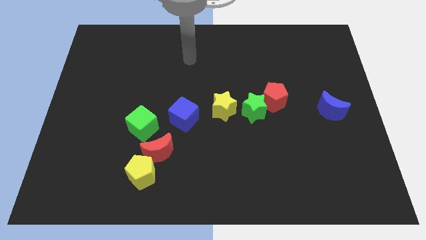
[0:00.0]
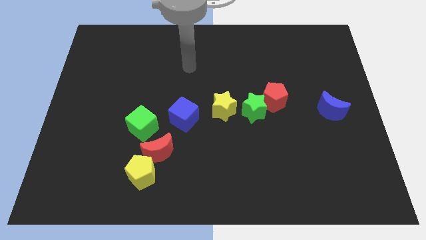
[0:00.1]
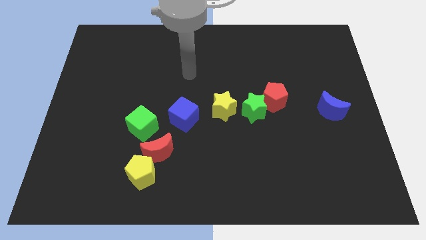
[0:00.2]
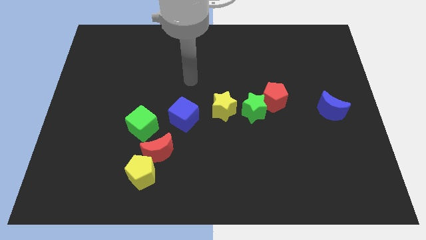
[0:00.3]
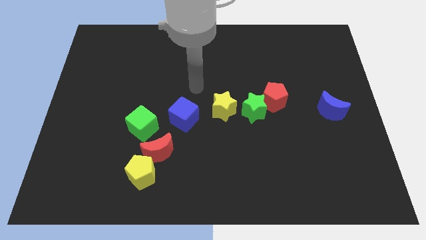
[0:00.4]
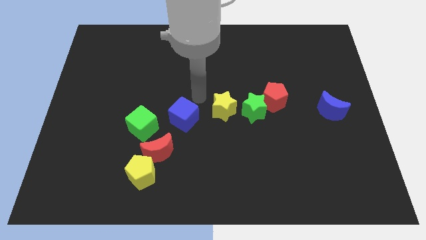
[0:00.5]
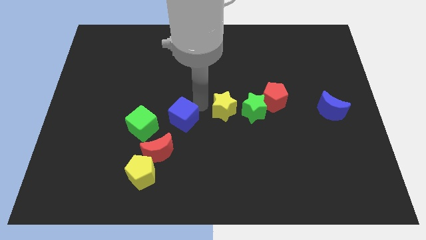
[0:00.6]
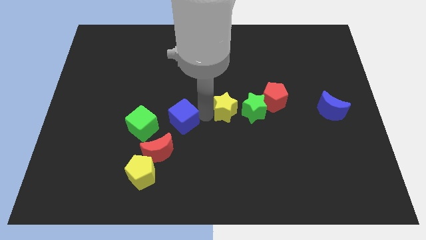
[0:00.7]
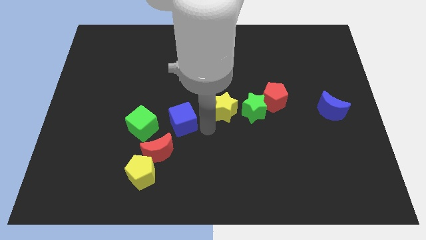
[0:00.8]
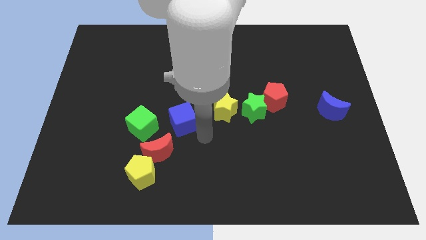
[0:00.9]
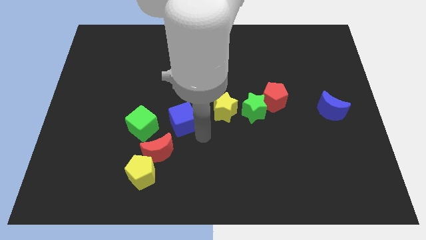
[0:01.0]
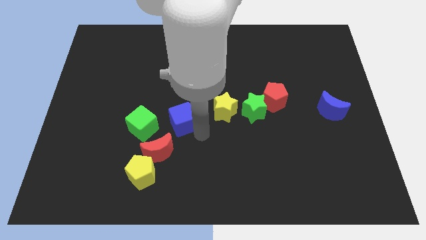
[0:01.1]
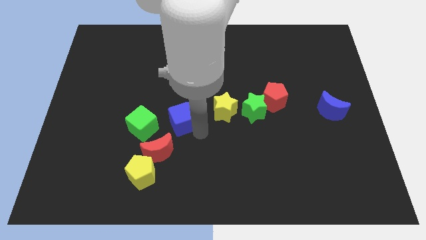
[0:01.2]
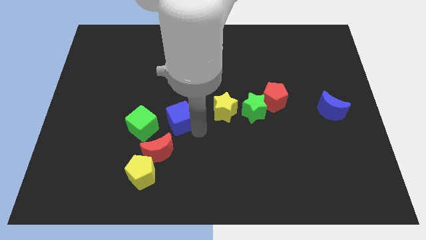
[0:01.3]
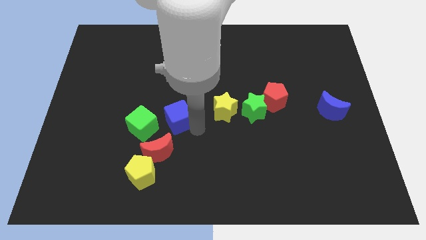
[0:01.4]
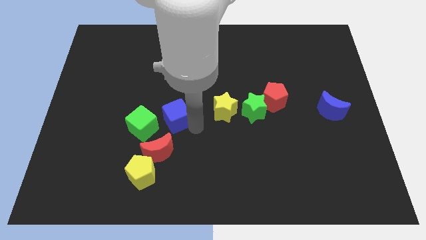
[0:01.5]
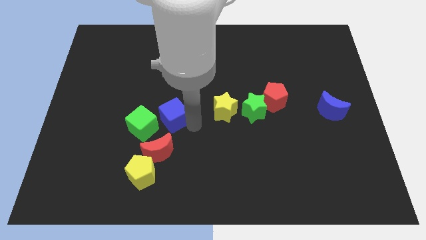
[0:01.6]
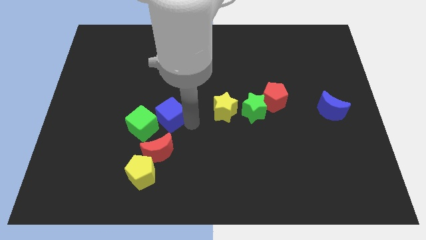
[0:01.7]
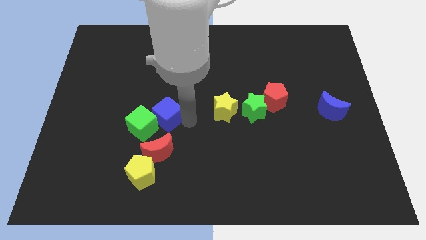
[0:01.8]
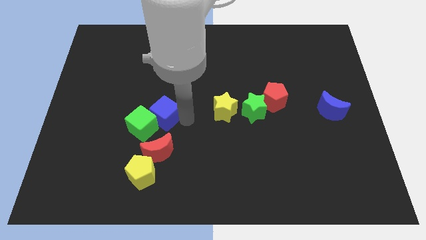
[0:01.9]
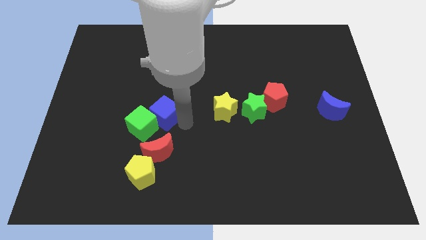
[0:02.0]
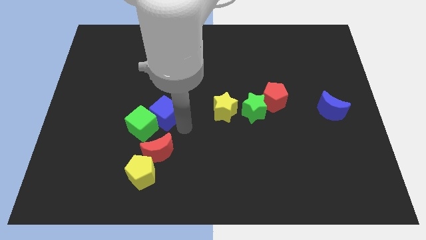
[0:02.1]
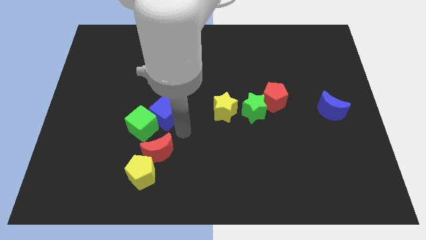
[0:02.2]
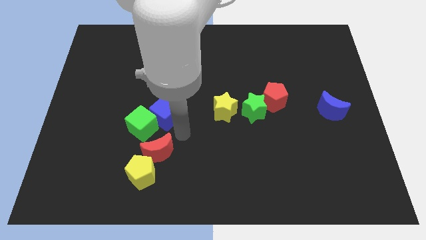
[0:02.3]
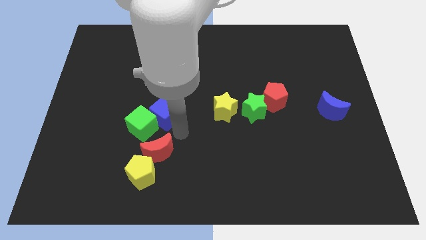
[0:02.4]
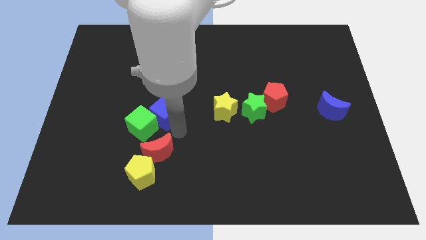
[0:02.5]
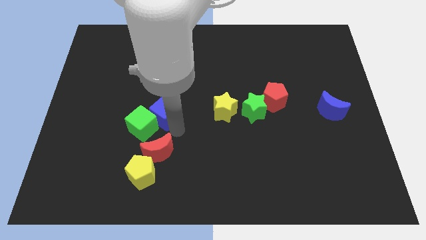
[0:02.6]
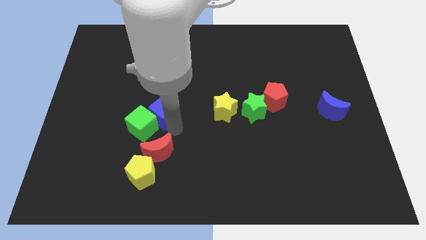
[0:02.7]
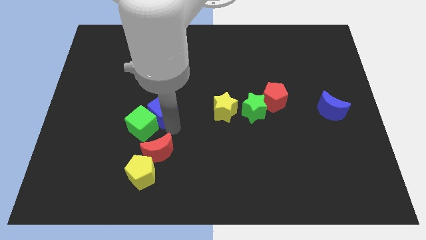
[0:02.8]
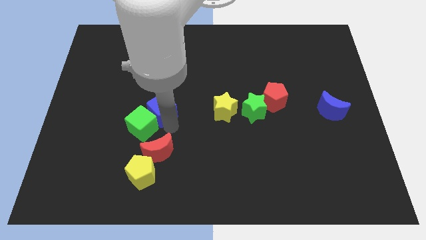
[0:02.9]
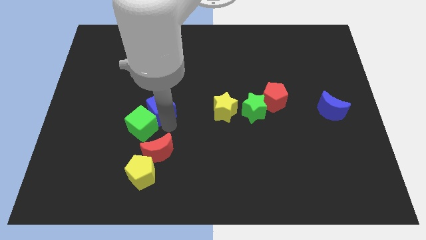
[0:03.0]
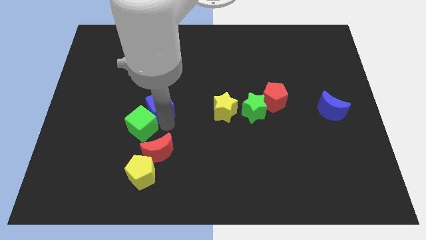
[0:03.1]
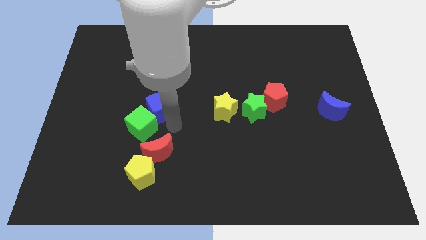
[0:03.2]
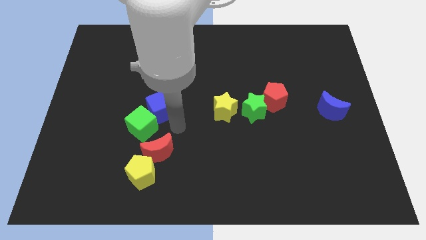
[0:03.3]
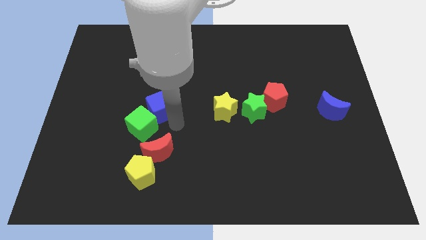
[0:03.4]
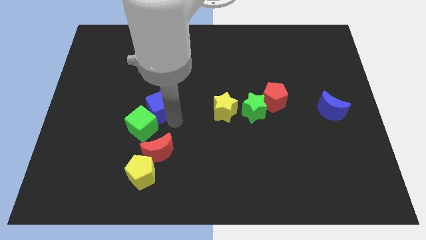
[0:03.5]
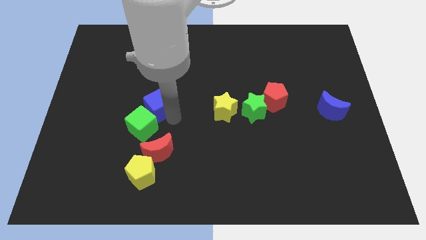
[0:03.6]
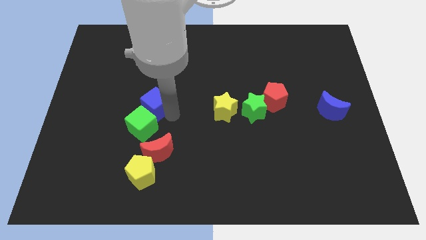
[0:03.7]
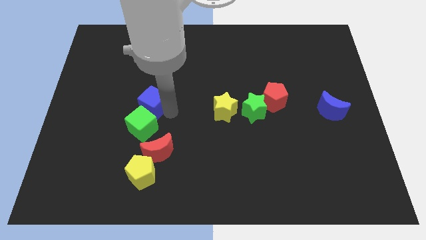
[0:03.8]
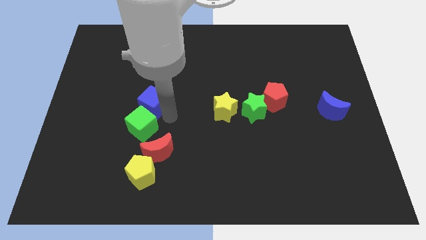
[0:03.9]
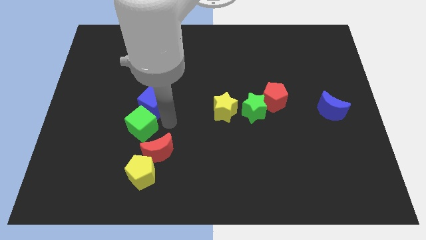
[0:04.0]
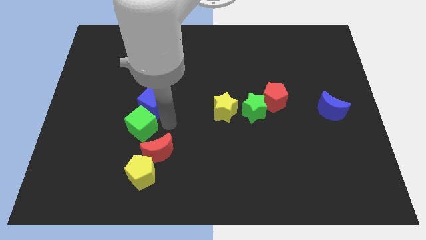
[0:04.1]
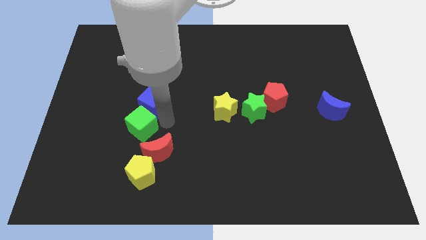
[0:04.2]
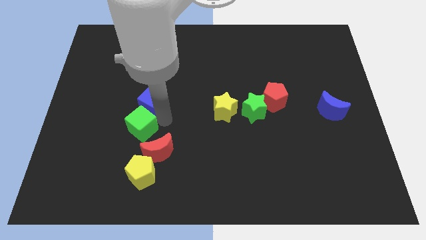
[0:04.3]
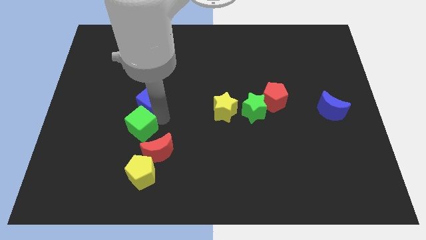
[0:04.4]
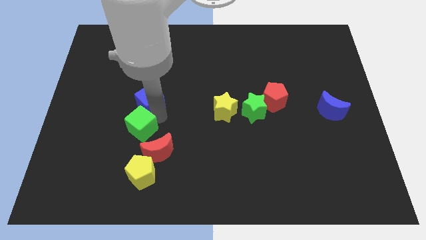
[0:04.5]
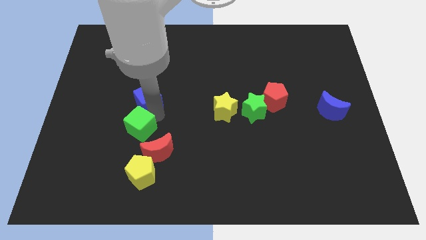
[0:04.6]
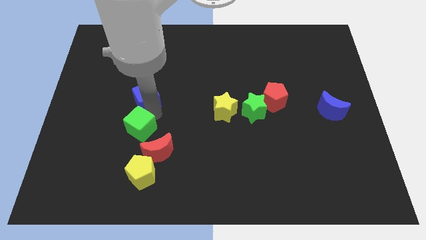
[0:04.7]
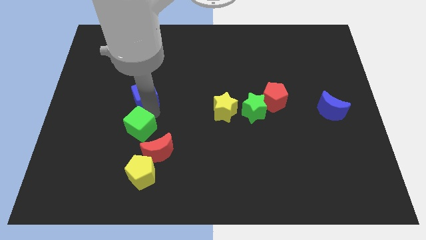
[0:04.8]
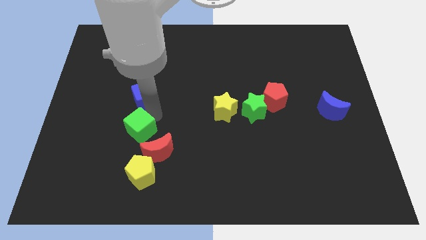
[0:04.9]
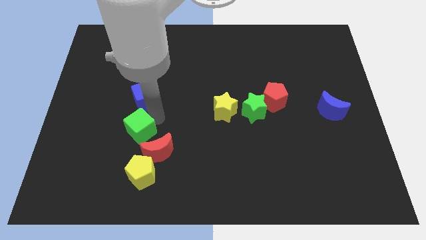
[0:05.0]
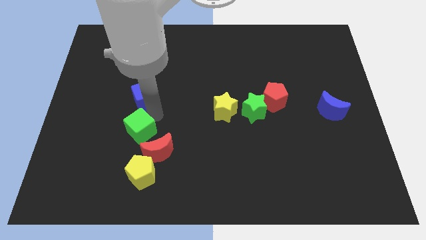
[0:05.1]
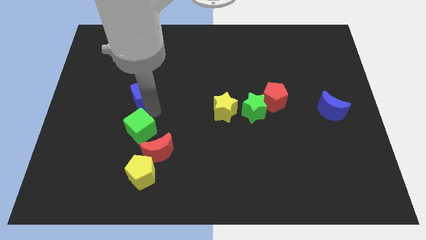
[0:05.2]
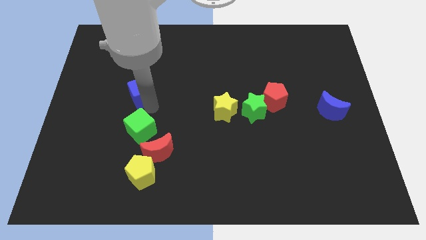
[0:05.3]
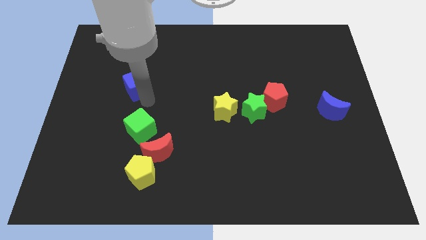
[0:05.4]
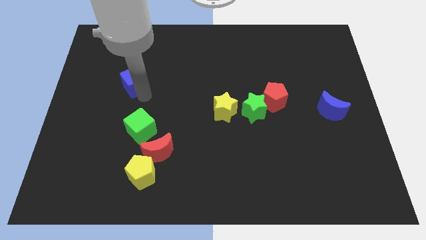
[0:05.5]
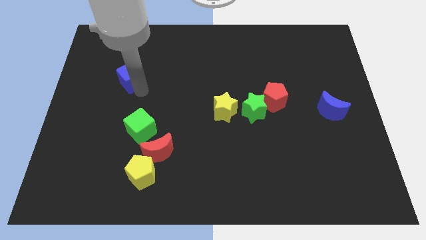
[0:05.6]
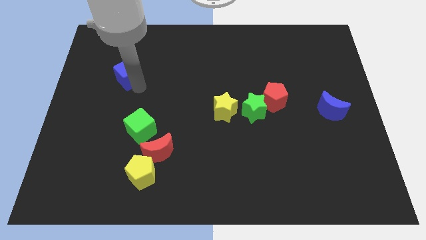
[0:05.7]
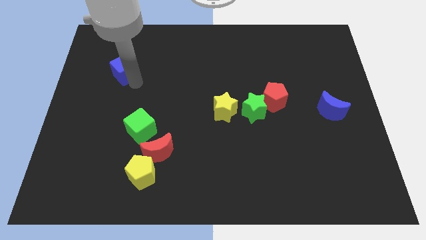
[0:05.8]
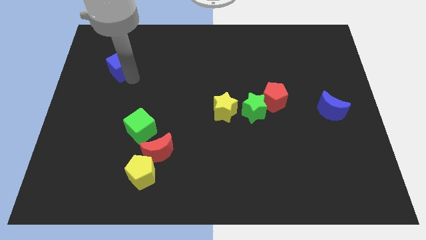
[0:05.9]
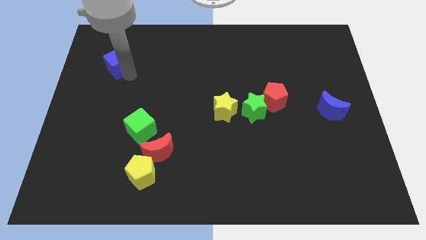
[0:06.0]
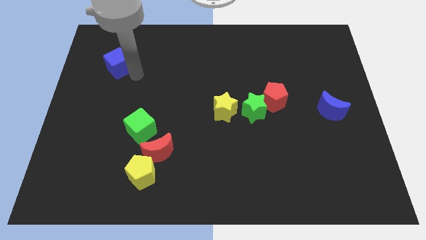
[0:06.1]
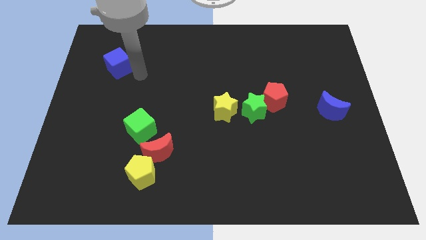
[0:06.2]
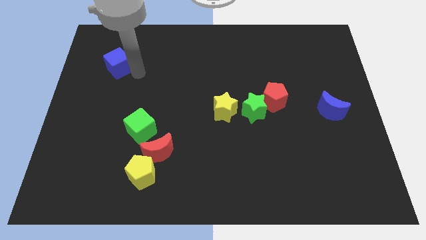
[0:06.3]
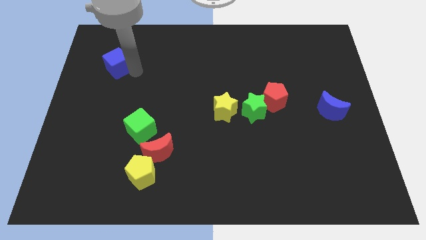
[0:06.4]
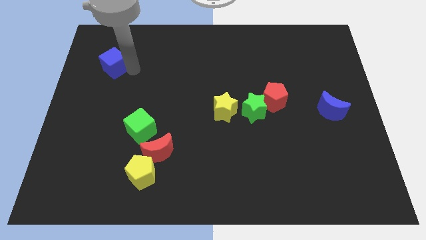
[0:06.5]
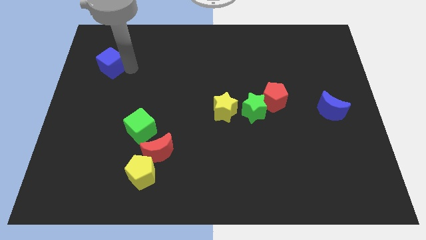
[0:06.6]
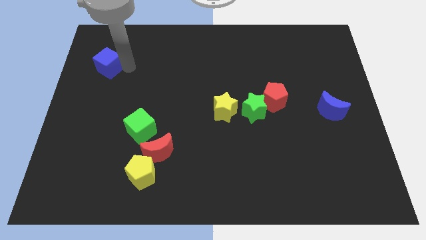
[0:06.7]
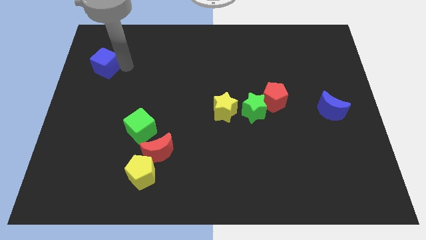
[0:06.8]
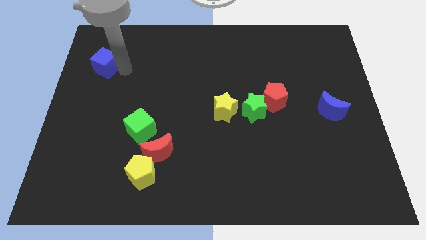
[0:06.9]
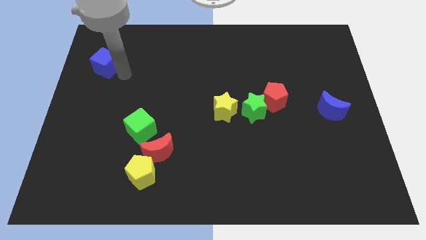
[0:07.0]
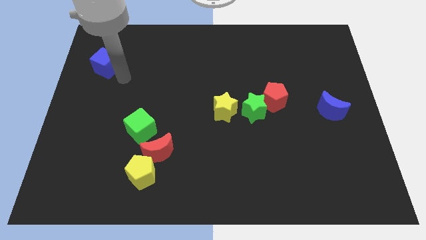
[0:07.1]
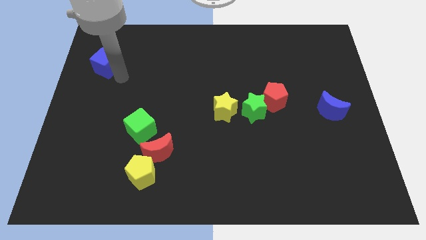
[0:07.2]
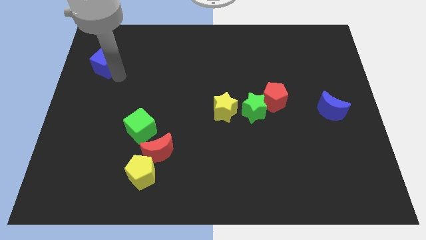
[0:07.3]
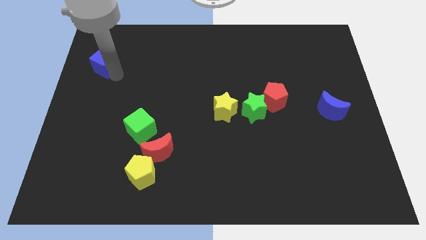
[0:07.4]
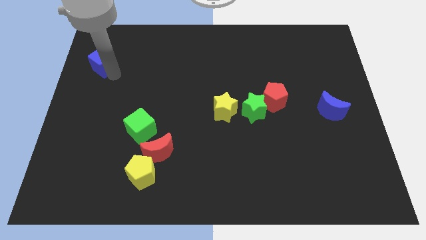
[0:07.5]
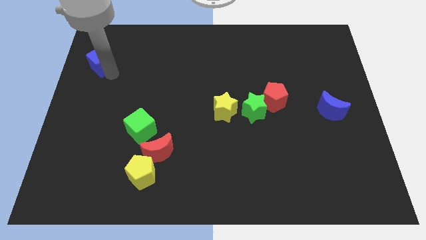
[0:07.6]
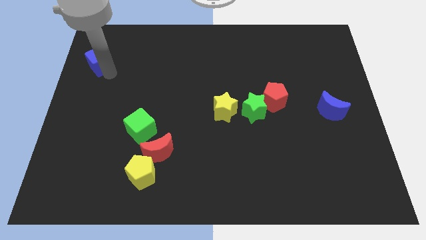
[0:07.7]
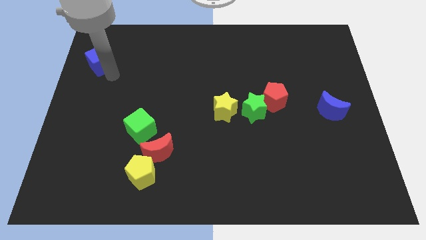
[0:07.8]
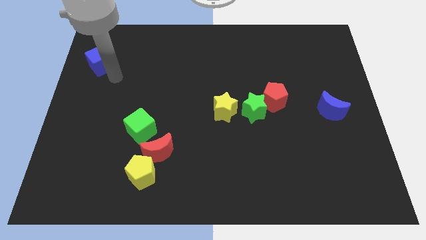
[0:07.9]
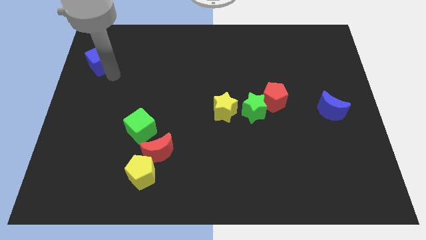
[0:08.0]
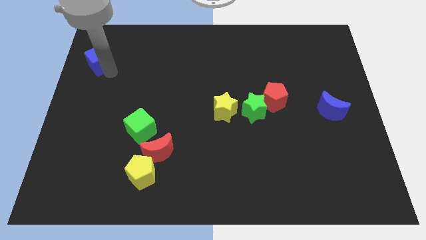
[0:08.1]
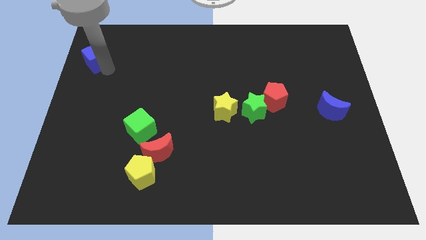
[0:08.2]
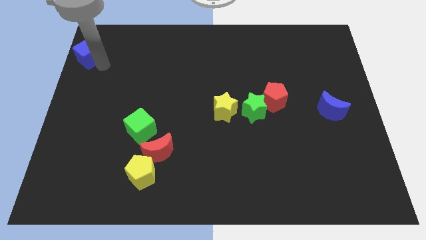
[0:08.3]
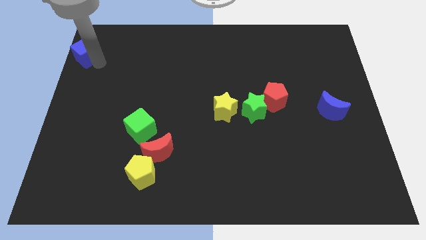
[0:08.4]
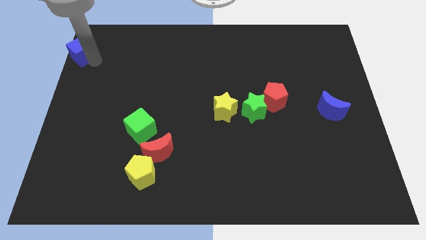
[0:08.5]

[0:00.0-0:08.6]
put the blue cube to the top left
